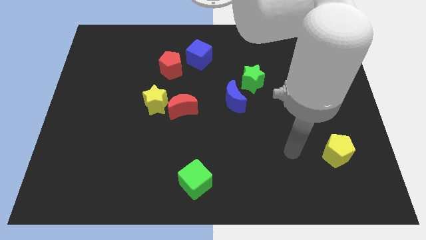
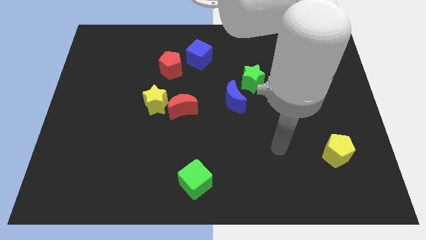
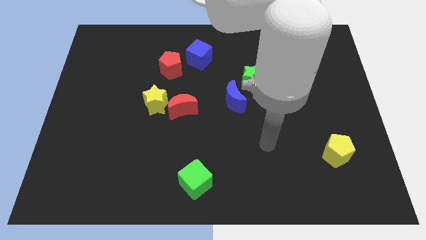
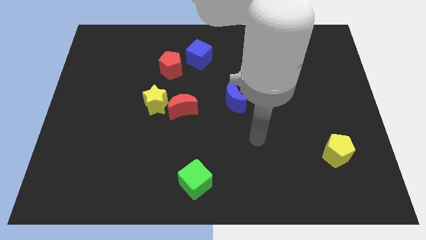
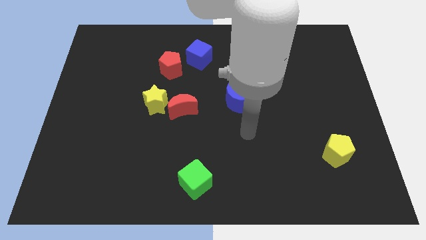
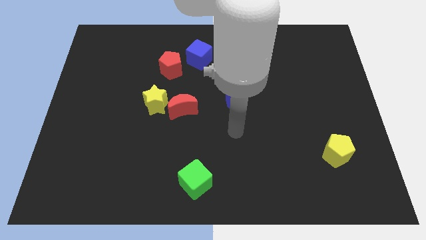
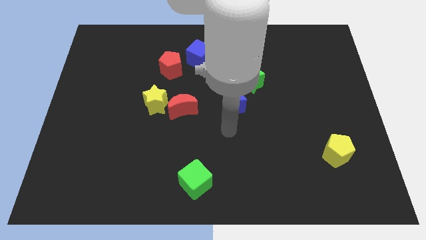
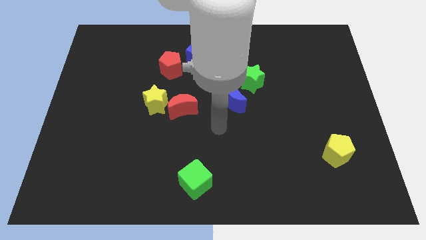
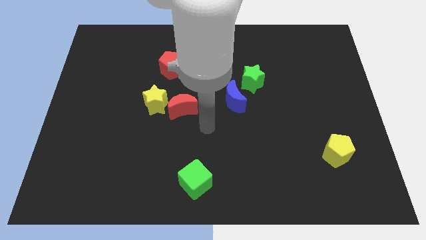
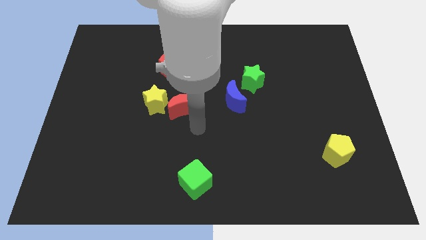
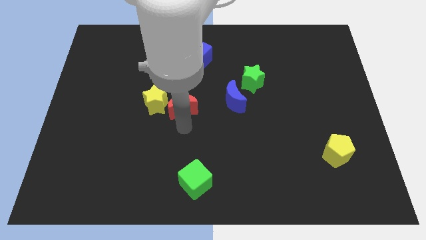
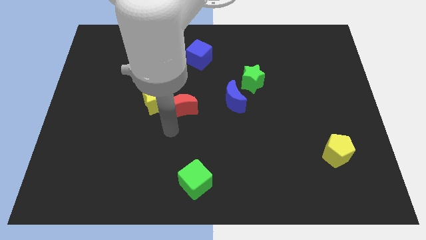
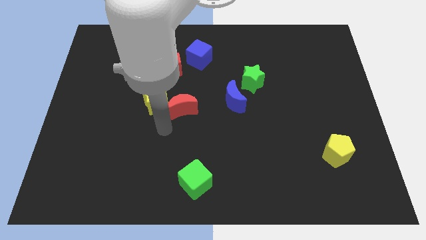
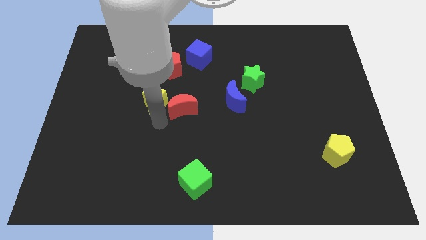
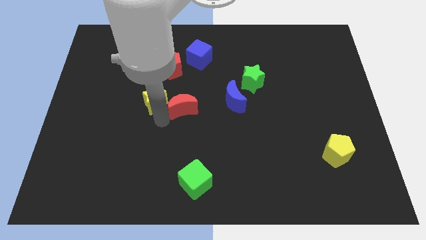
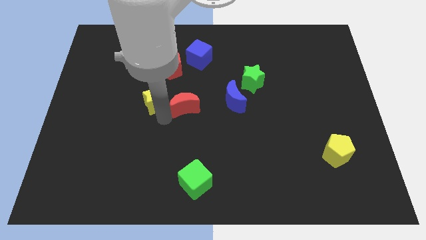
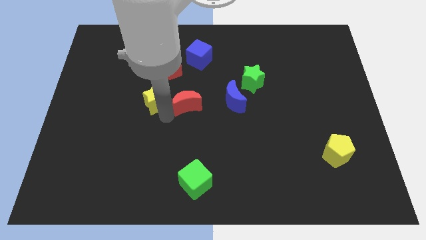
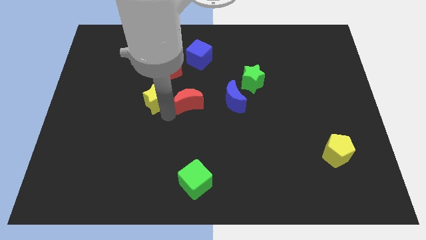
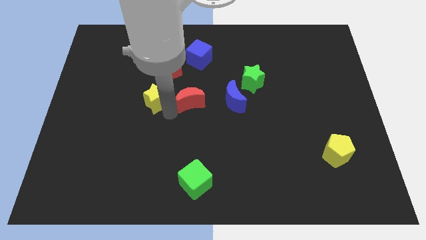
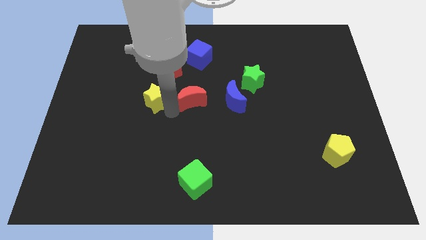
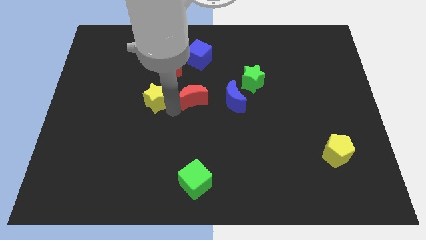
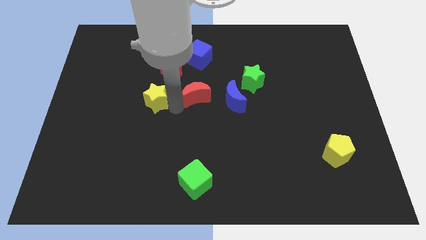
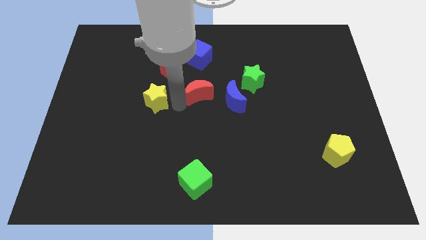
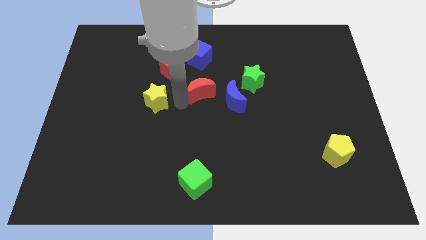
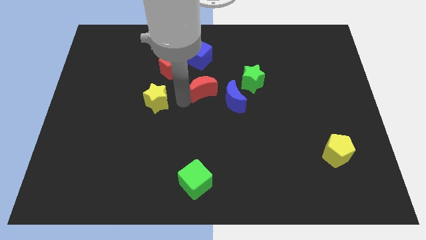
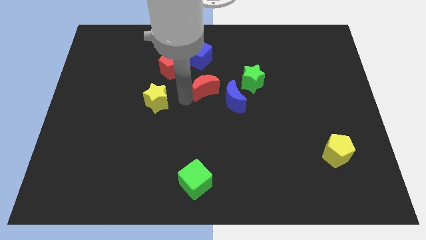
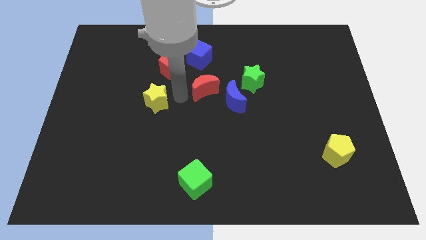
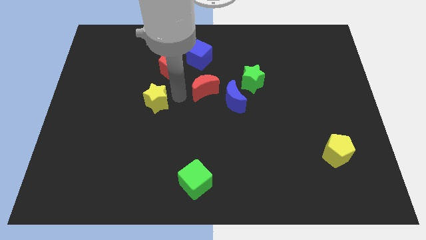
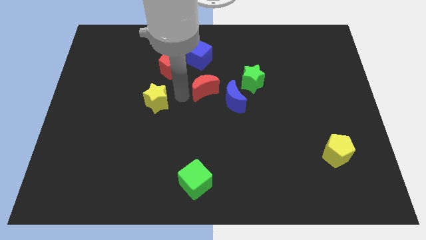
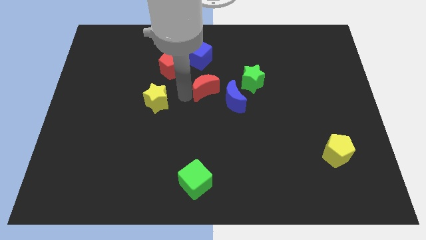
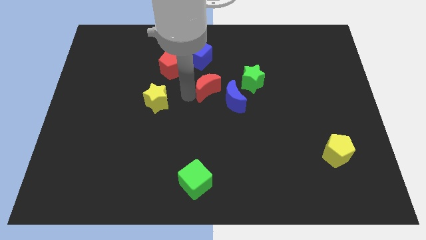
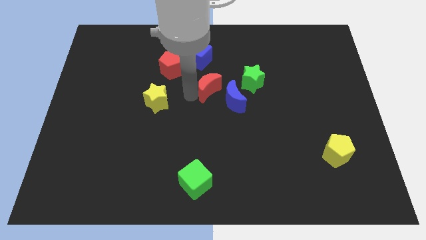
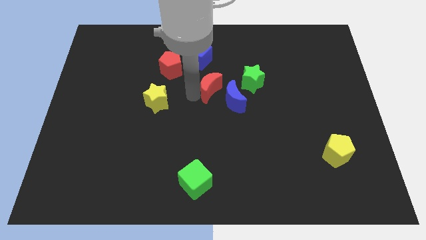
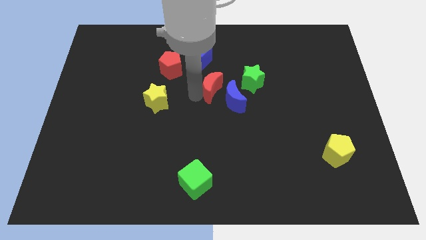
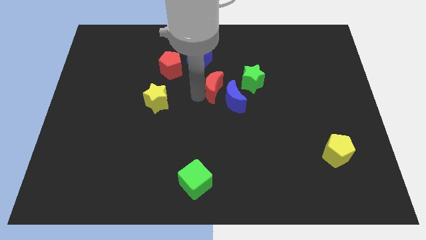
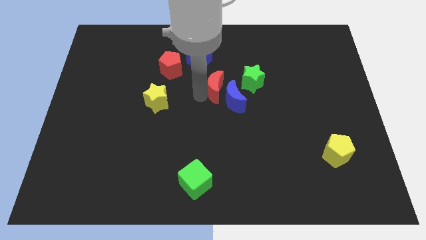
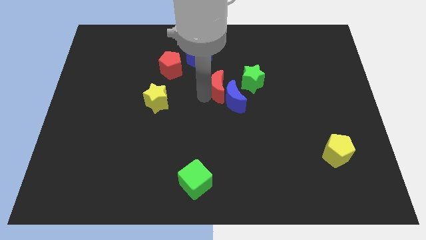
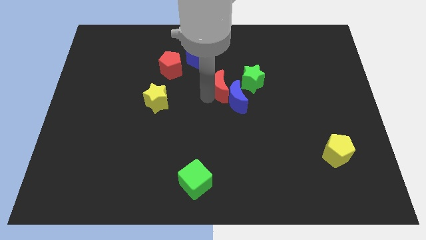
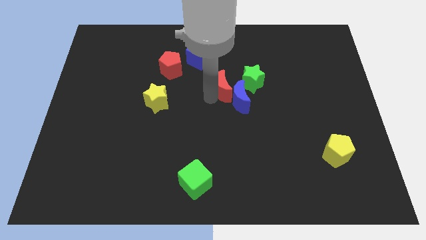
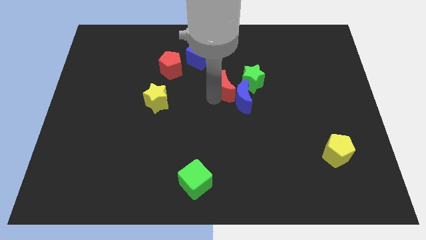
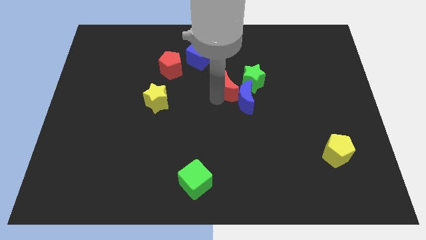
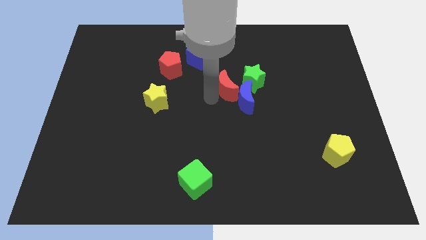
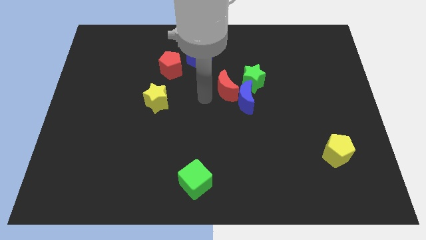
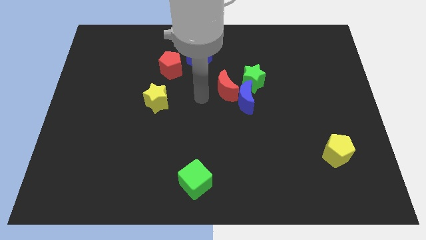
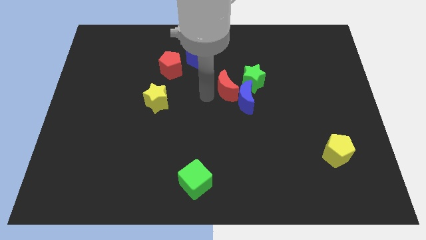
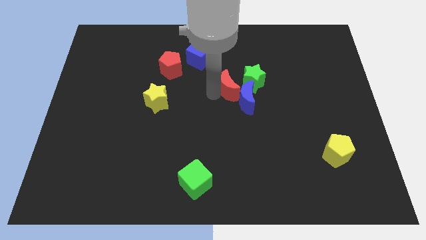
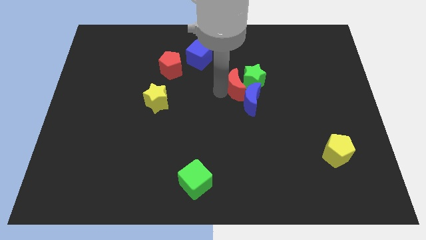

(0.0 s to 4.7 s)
put the red moon close to the green star

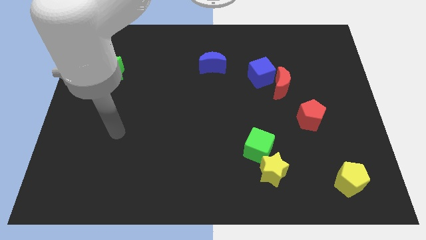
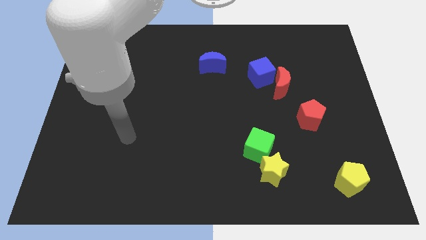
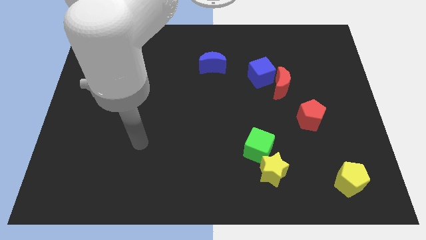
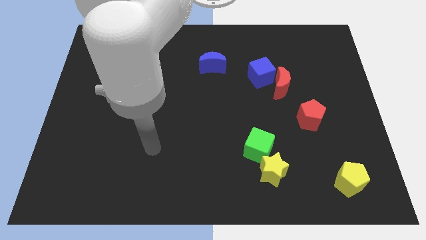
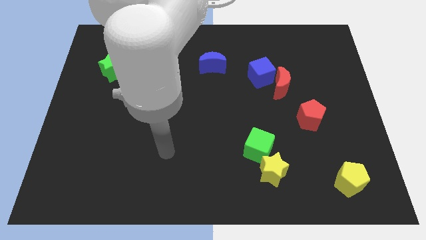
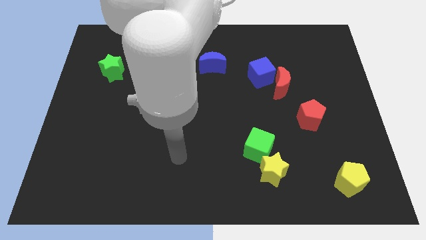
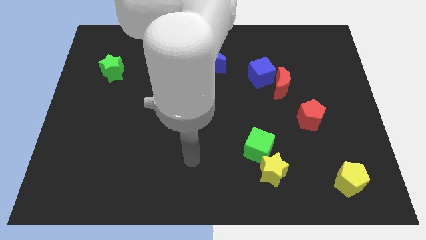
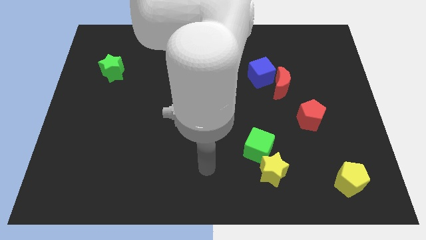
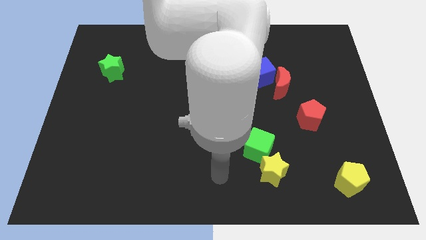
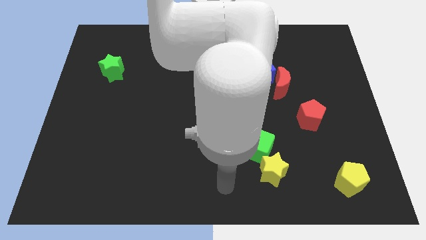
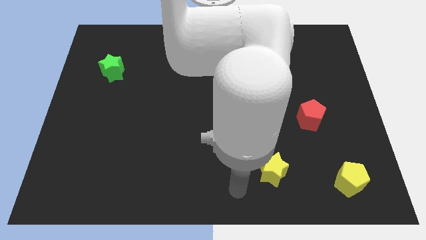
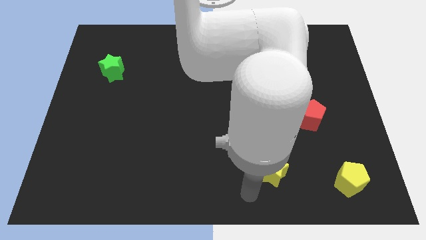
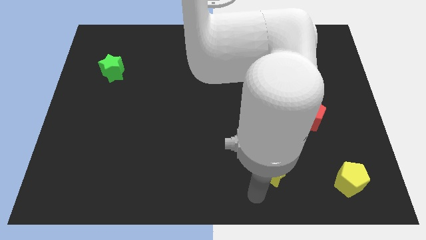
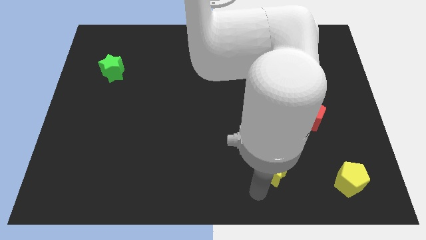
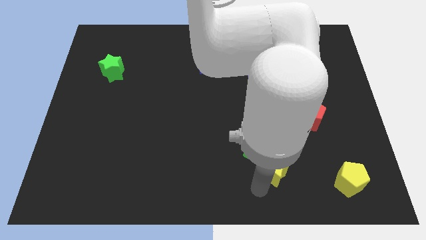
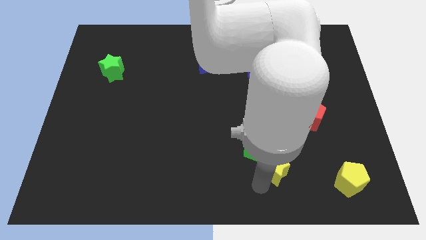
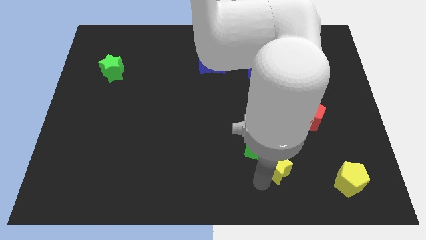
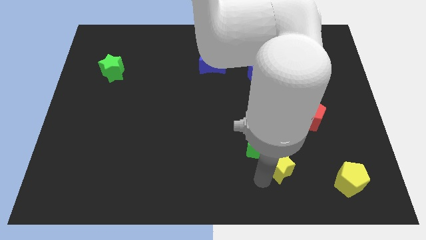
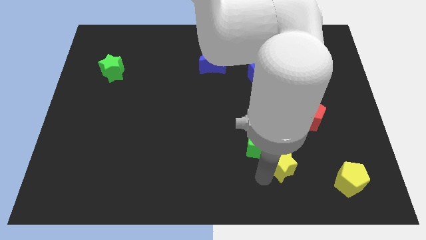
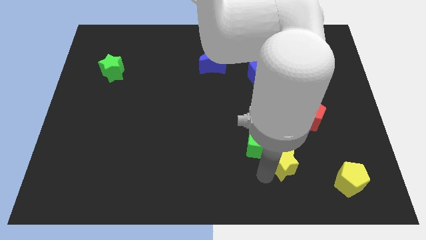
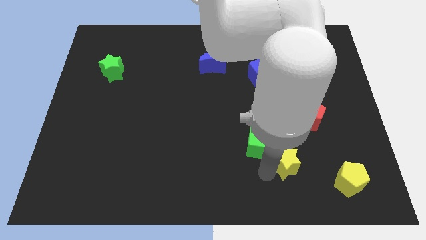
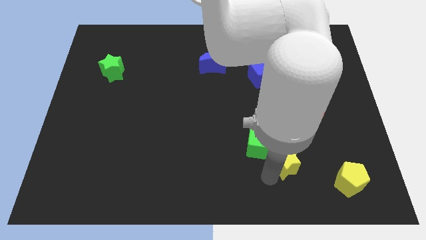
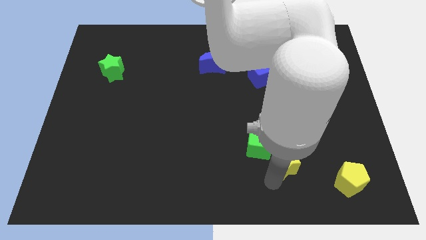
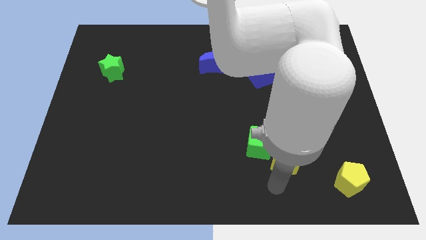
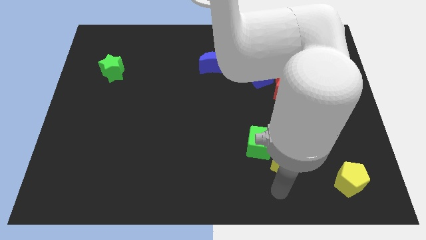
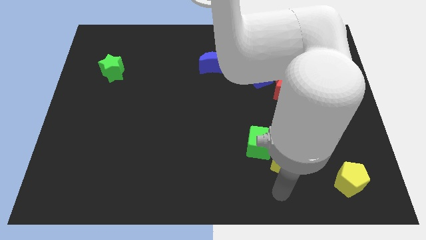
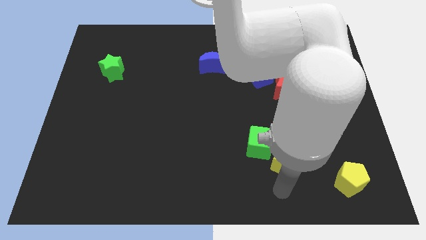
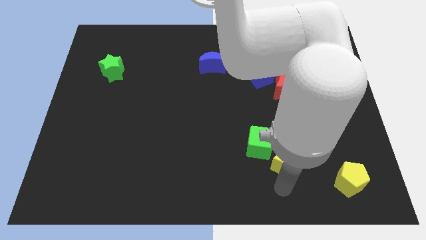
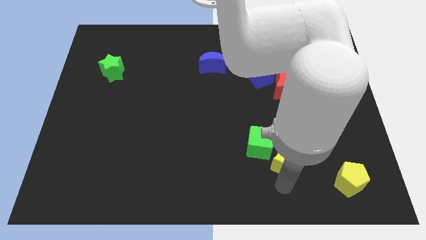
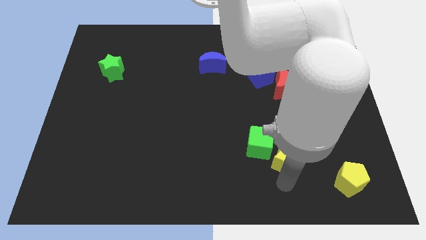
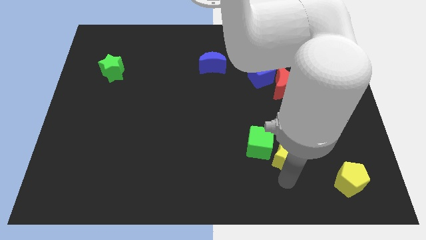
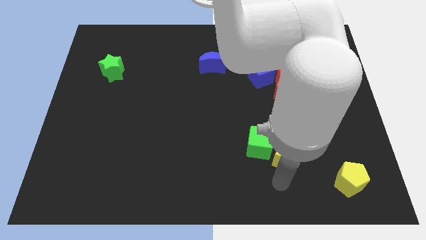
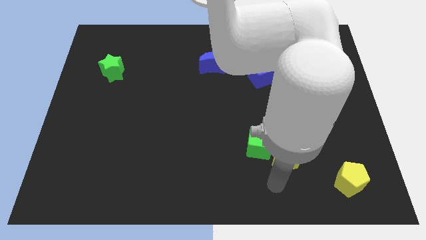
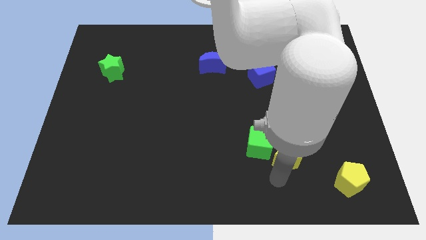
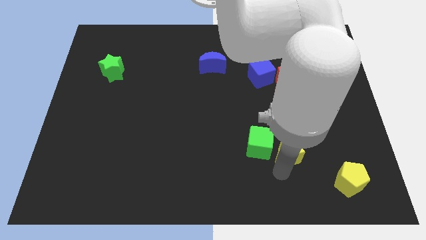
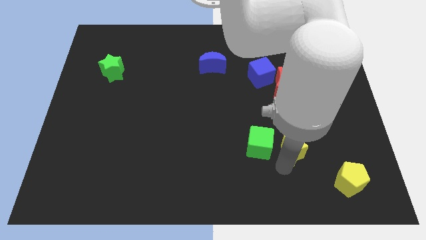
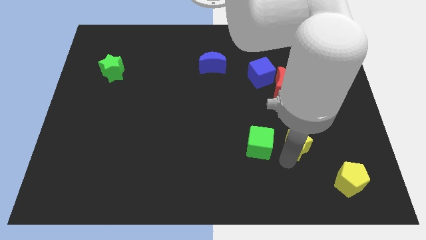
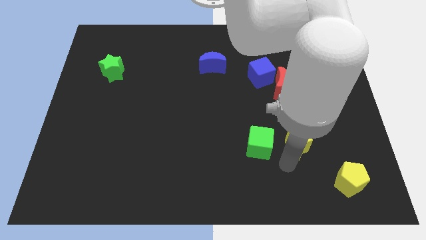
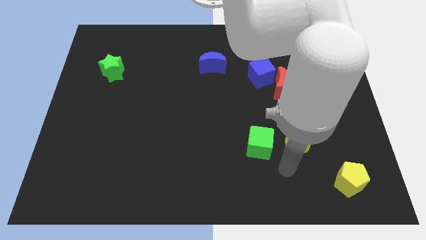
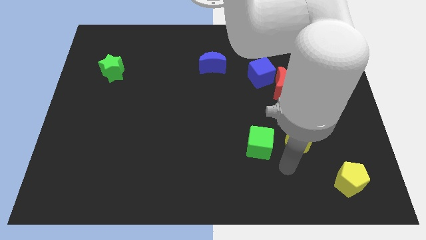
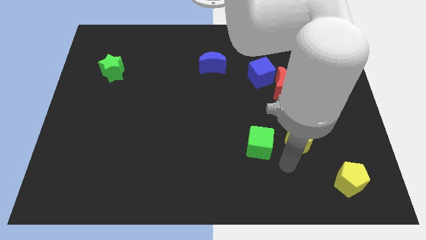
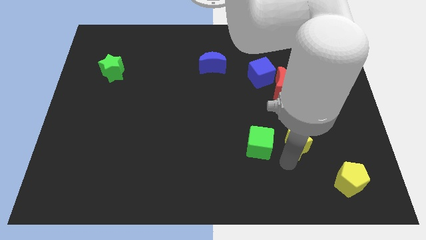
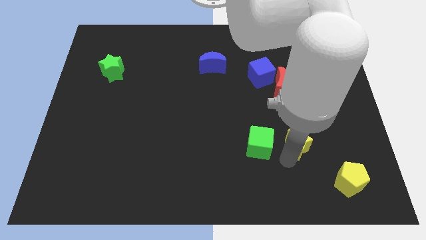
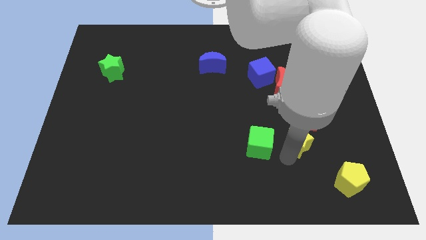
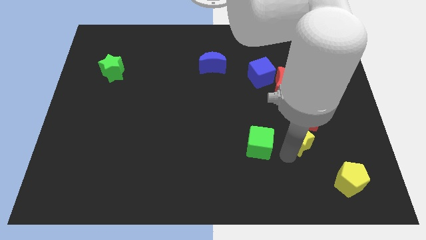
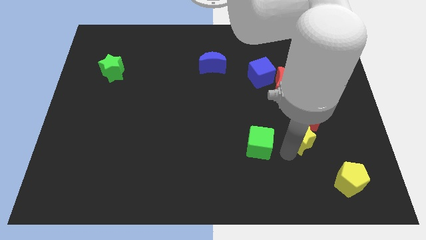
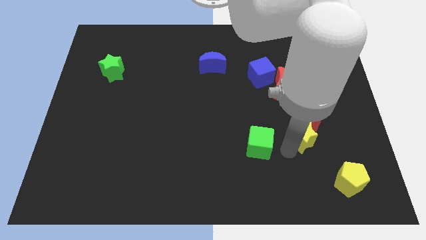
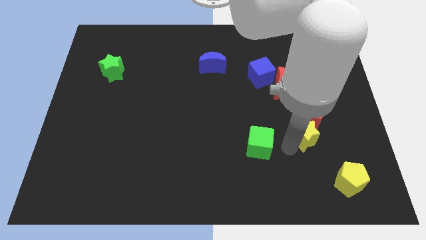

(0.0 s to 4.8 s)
push the yellow star next to the red pentagon
